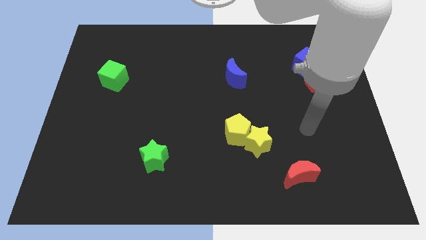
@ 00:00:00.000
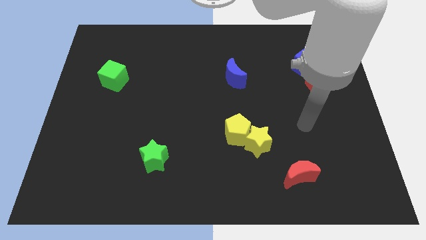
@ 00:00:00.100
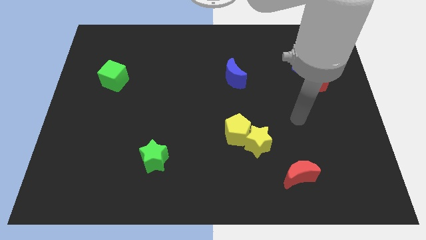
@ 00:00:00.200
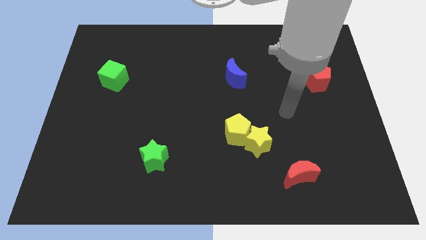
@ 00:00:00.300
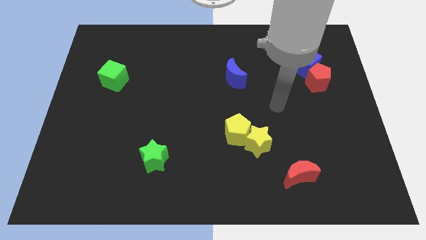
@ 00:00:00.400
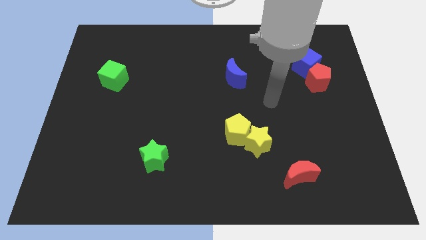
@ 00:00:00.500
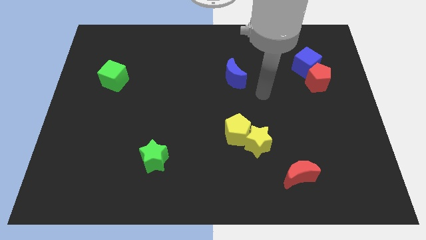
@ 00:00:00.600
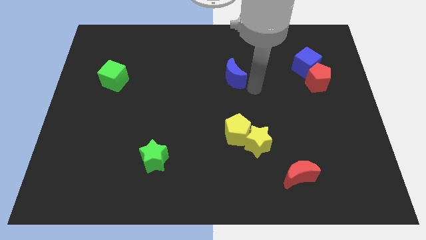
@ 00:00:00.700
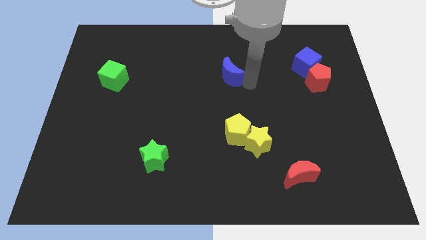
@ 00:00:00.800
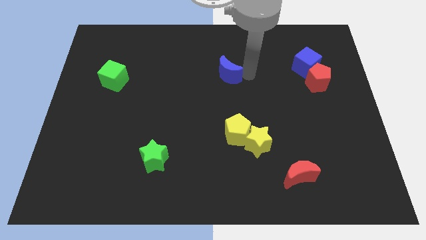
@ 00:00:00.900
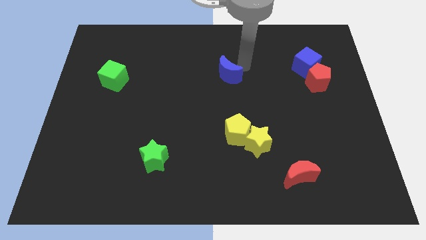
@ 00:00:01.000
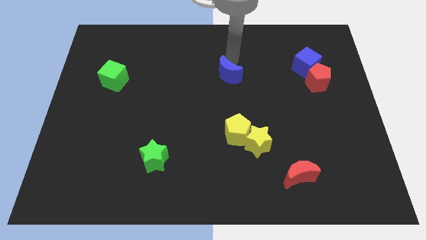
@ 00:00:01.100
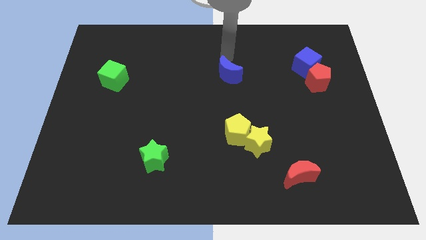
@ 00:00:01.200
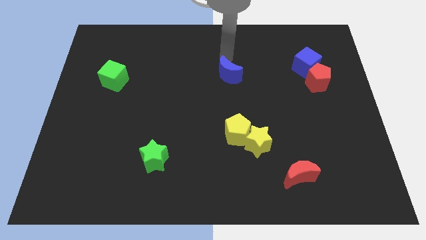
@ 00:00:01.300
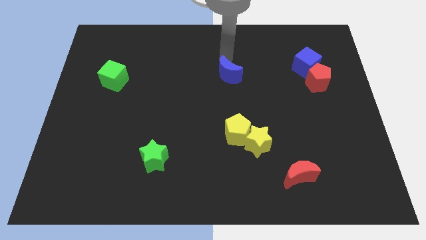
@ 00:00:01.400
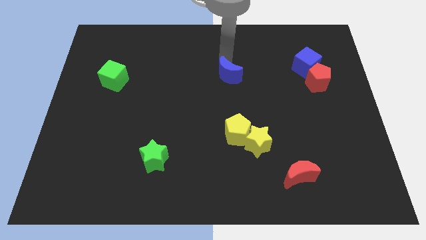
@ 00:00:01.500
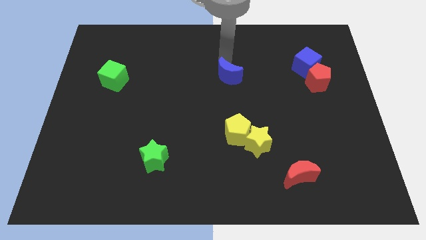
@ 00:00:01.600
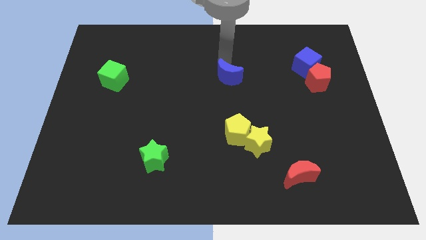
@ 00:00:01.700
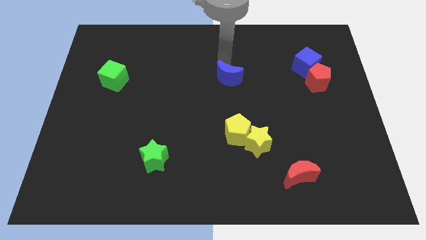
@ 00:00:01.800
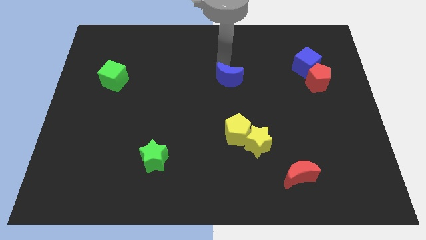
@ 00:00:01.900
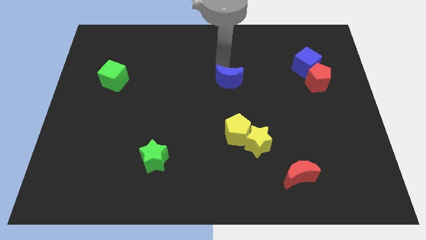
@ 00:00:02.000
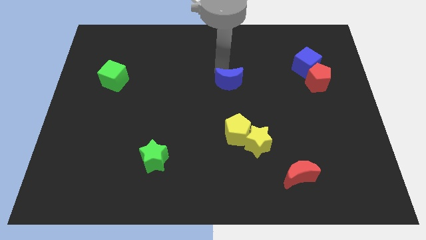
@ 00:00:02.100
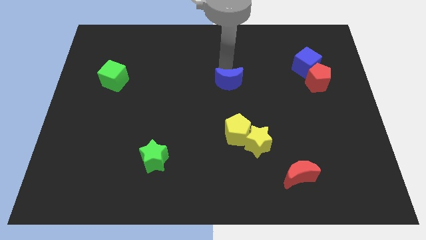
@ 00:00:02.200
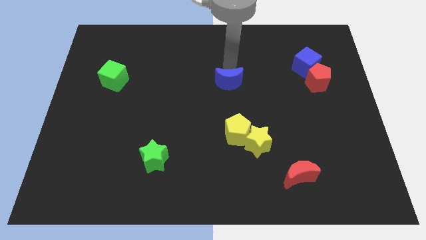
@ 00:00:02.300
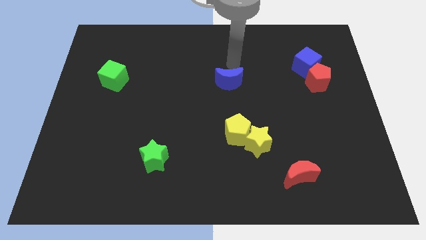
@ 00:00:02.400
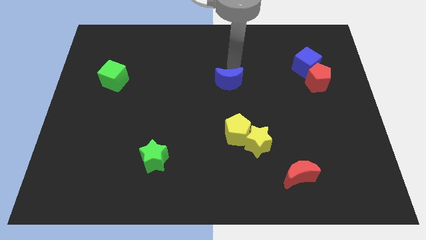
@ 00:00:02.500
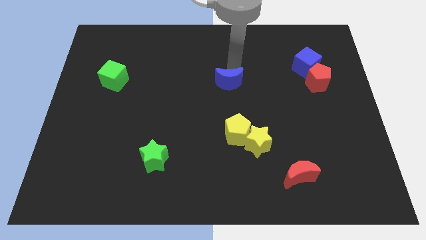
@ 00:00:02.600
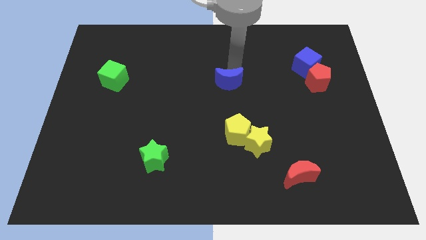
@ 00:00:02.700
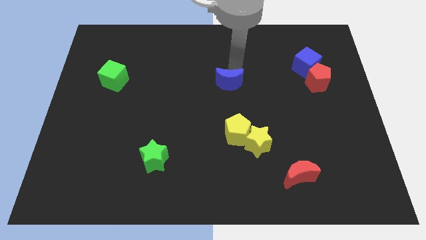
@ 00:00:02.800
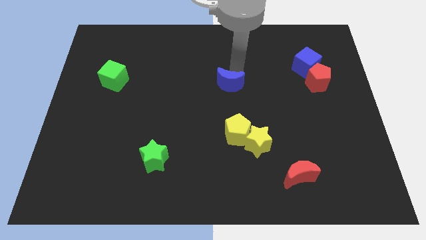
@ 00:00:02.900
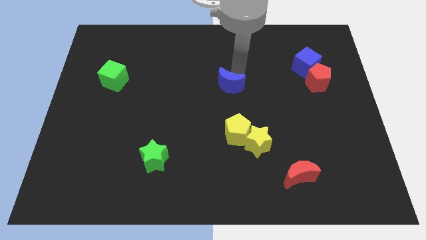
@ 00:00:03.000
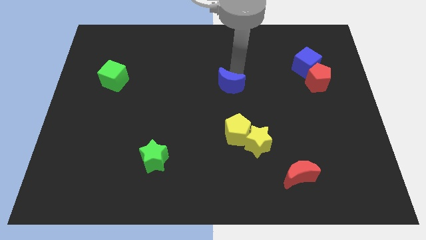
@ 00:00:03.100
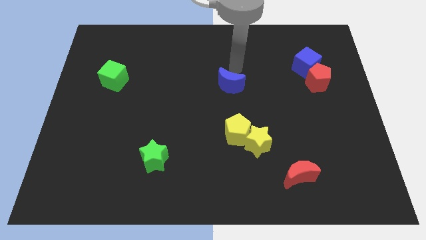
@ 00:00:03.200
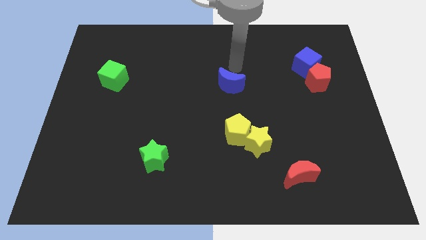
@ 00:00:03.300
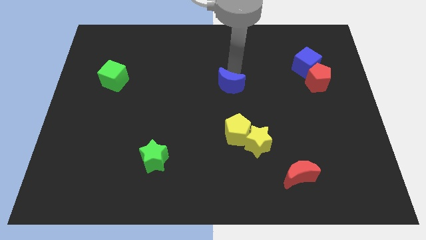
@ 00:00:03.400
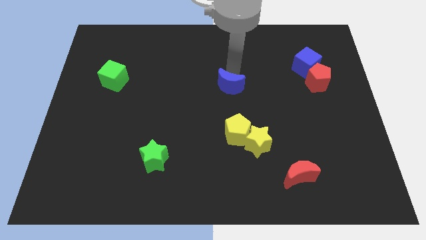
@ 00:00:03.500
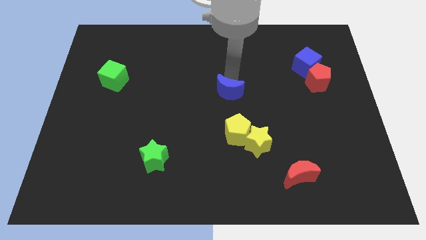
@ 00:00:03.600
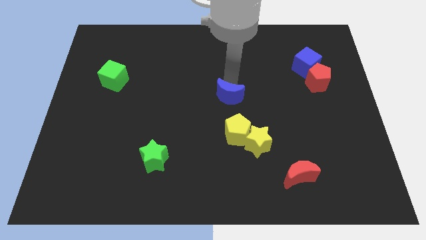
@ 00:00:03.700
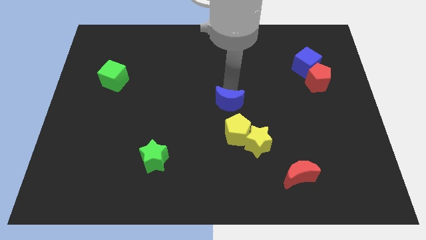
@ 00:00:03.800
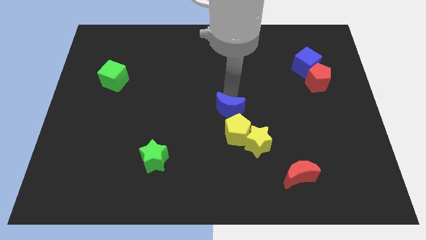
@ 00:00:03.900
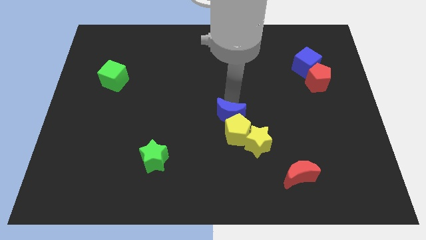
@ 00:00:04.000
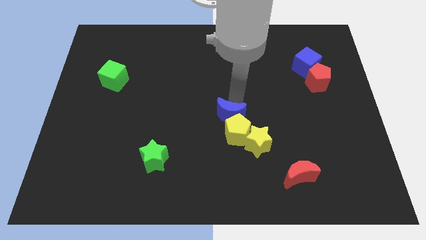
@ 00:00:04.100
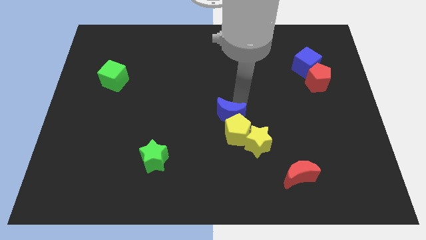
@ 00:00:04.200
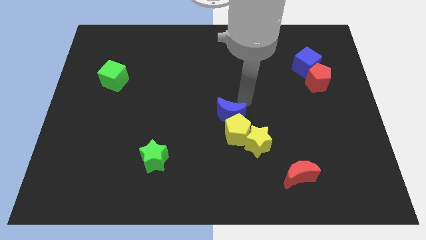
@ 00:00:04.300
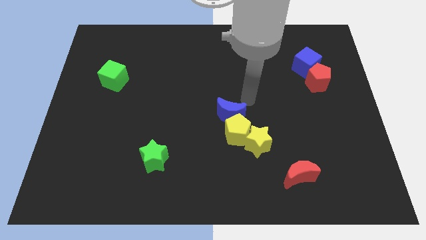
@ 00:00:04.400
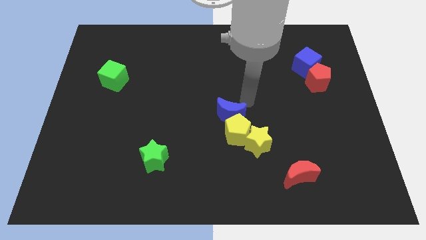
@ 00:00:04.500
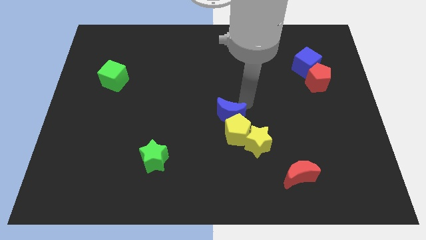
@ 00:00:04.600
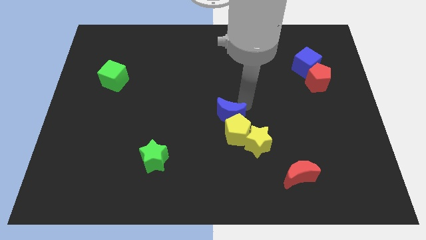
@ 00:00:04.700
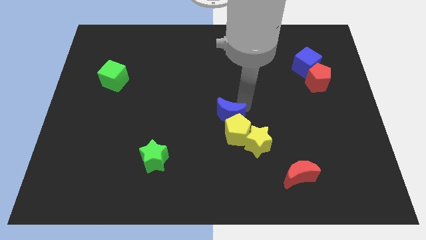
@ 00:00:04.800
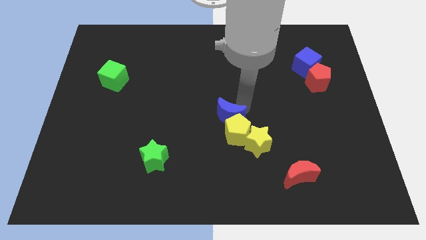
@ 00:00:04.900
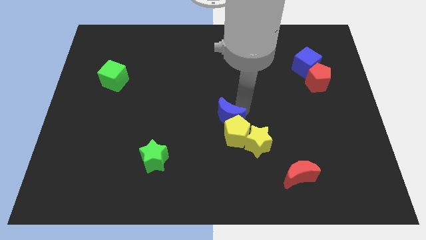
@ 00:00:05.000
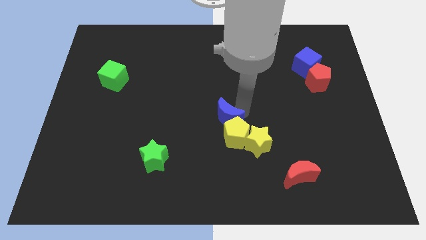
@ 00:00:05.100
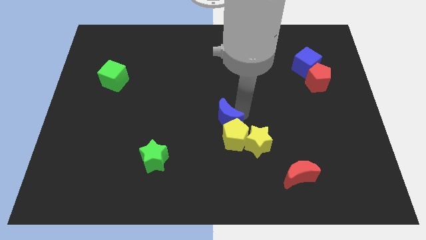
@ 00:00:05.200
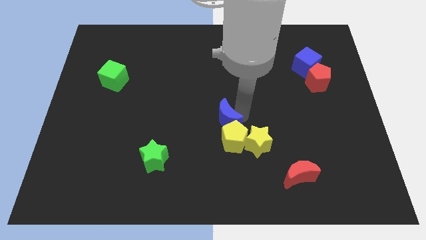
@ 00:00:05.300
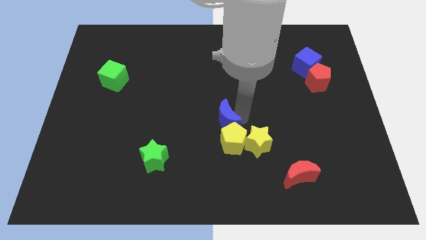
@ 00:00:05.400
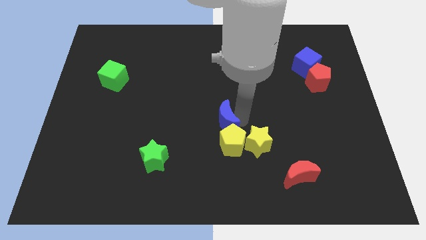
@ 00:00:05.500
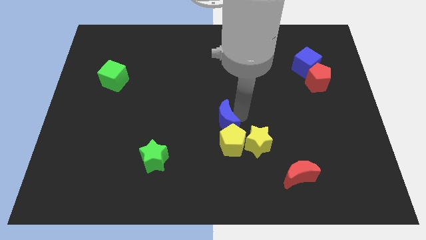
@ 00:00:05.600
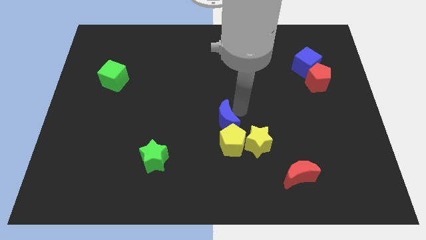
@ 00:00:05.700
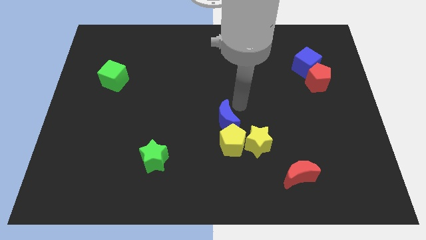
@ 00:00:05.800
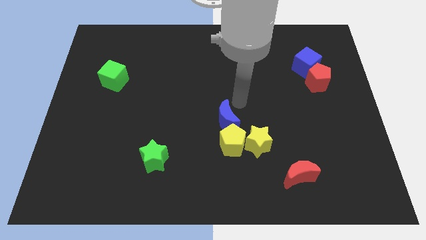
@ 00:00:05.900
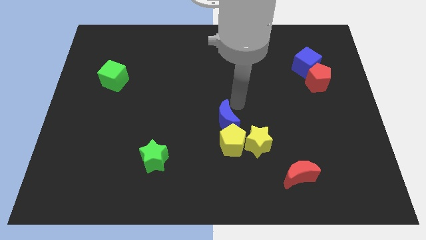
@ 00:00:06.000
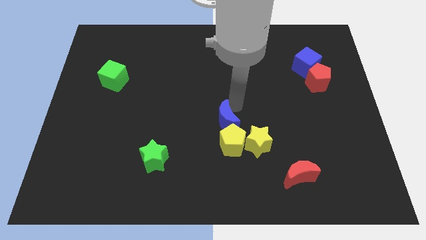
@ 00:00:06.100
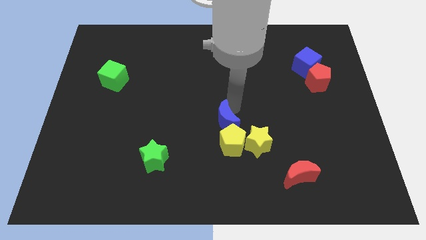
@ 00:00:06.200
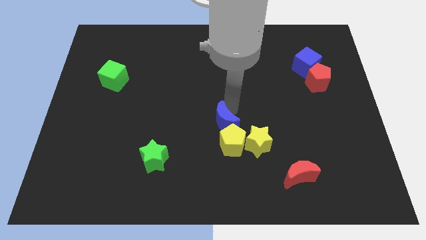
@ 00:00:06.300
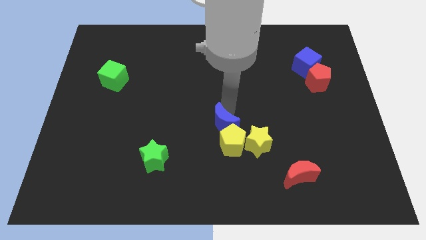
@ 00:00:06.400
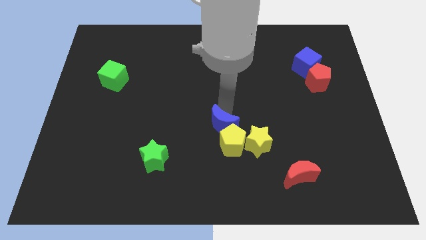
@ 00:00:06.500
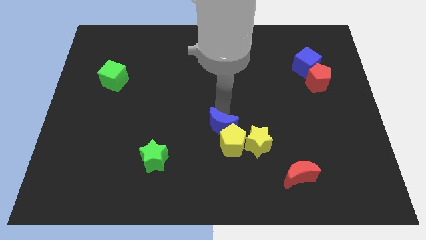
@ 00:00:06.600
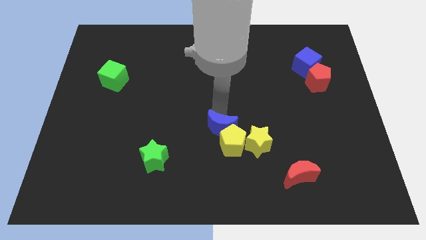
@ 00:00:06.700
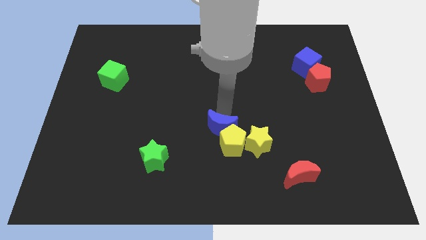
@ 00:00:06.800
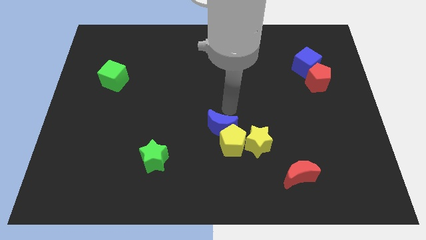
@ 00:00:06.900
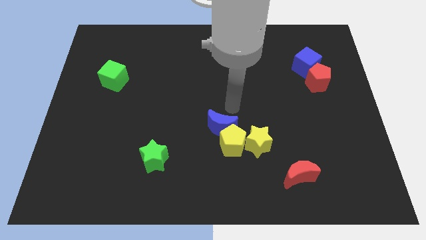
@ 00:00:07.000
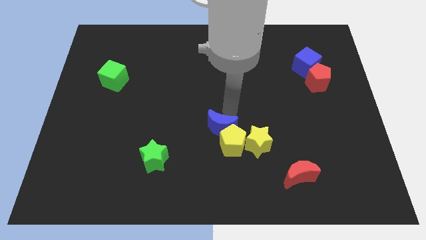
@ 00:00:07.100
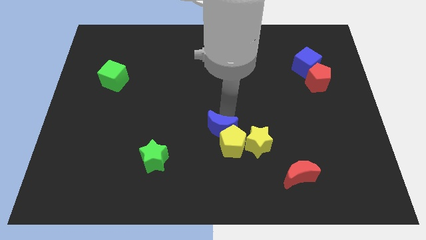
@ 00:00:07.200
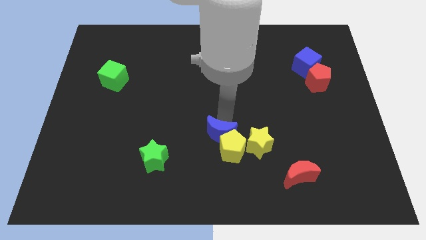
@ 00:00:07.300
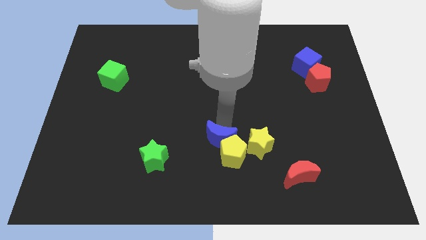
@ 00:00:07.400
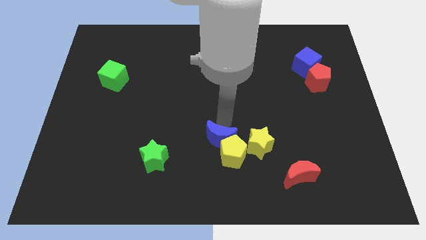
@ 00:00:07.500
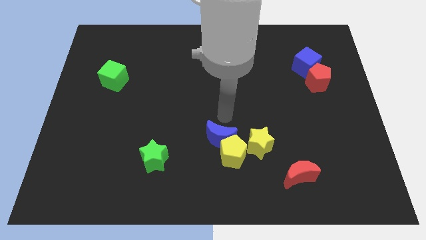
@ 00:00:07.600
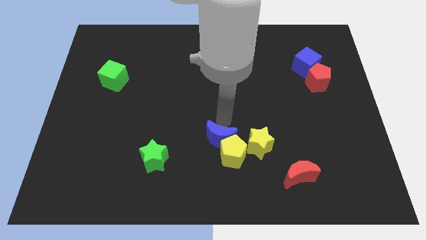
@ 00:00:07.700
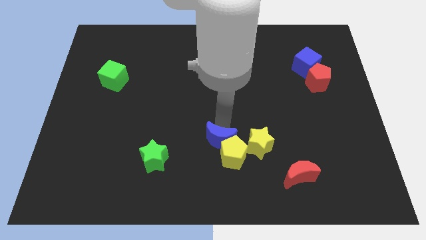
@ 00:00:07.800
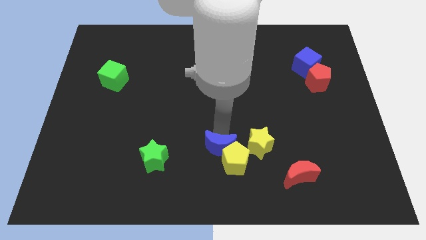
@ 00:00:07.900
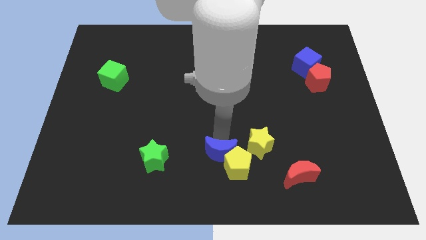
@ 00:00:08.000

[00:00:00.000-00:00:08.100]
move the blue moon to the bottom
